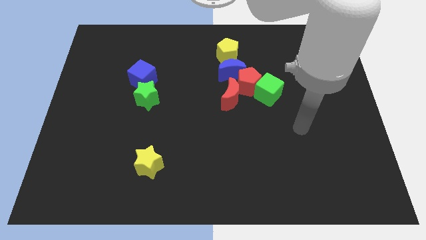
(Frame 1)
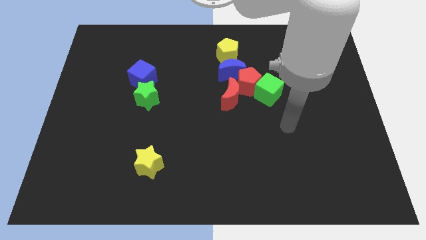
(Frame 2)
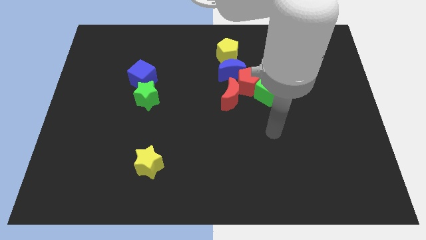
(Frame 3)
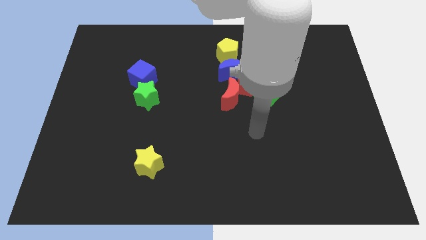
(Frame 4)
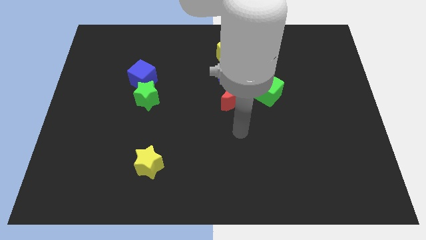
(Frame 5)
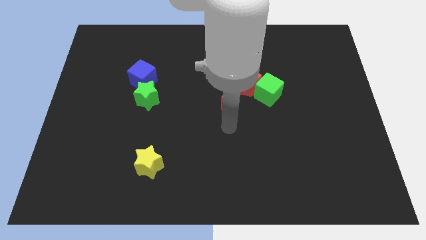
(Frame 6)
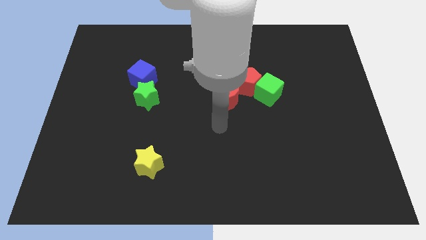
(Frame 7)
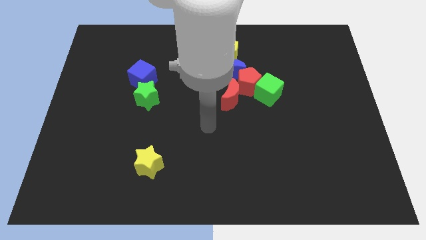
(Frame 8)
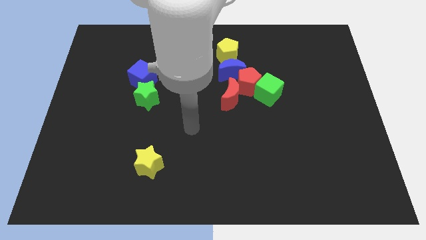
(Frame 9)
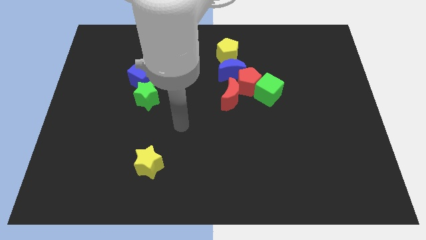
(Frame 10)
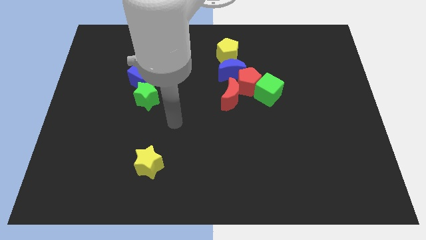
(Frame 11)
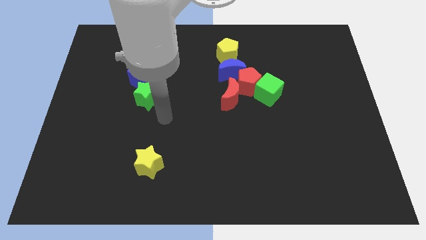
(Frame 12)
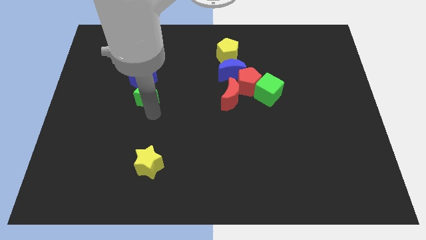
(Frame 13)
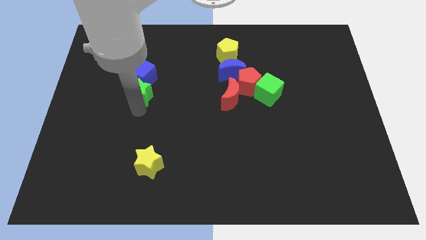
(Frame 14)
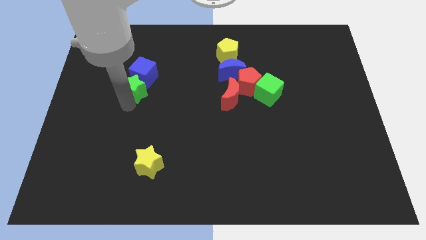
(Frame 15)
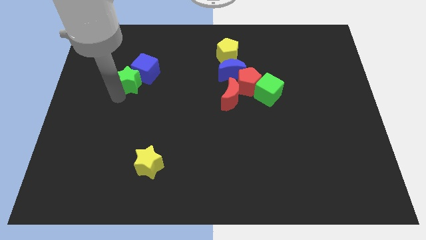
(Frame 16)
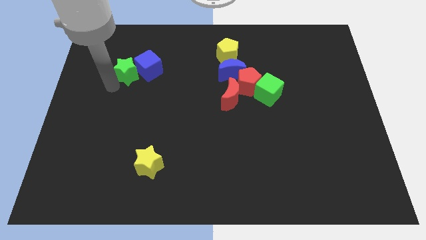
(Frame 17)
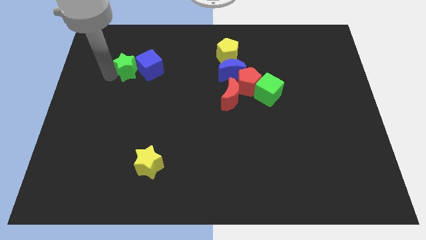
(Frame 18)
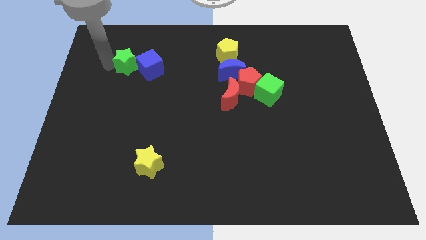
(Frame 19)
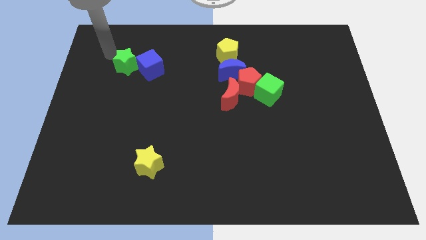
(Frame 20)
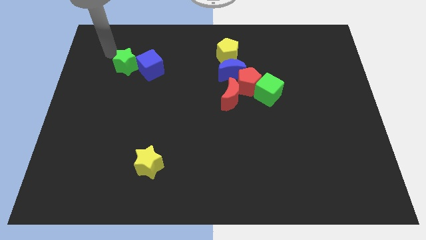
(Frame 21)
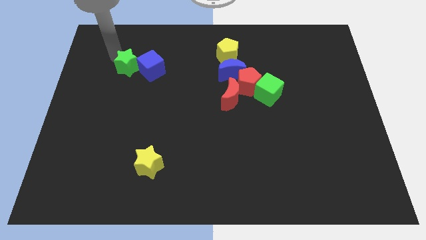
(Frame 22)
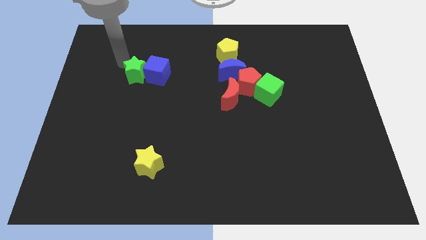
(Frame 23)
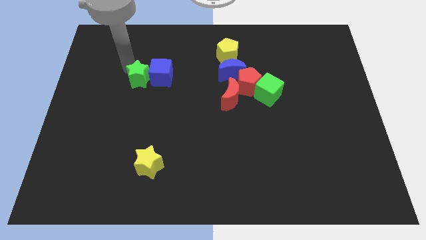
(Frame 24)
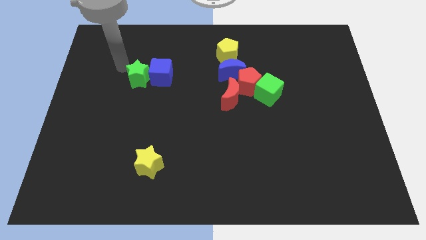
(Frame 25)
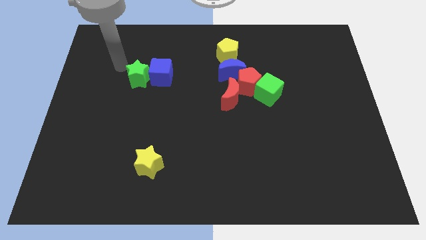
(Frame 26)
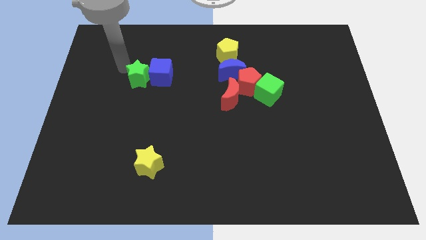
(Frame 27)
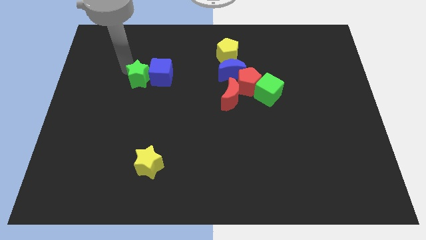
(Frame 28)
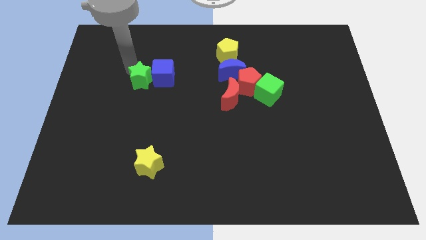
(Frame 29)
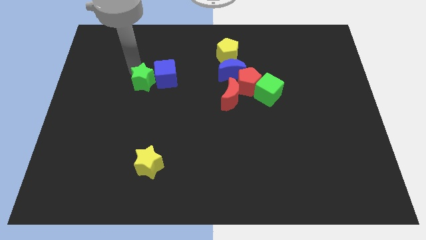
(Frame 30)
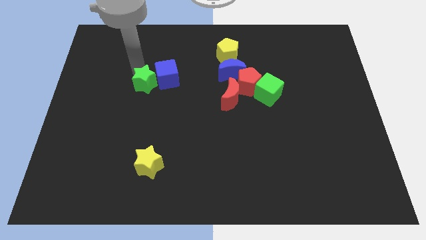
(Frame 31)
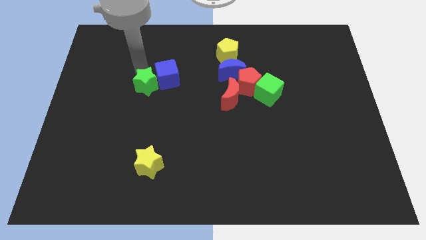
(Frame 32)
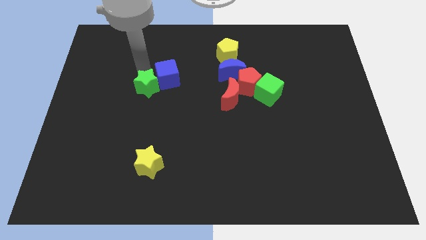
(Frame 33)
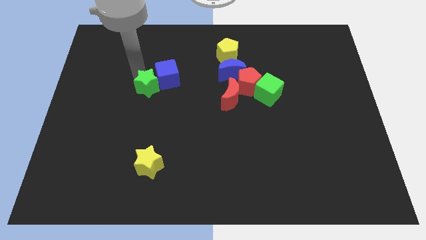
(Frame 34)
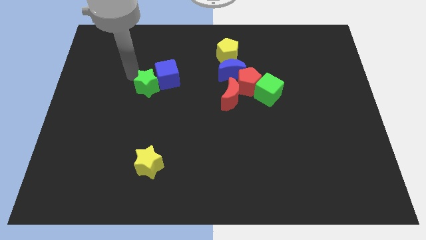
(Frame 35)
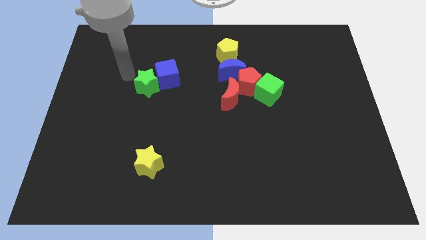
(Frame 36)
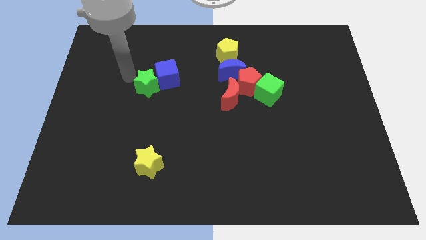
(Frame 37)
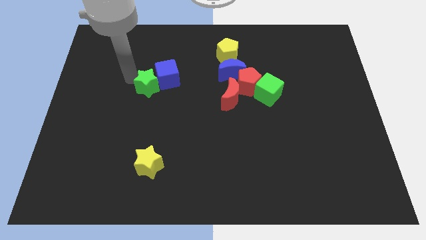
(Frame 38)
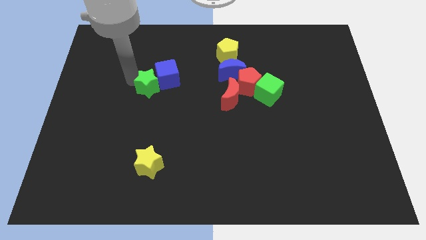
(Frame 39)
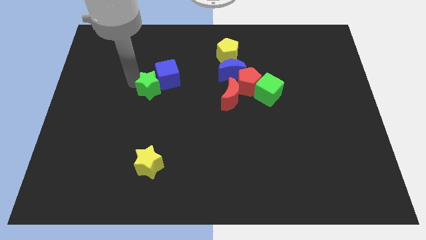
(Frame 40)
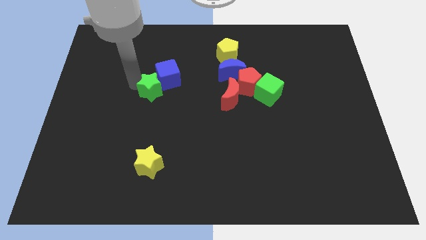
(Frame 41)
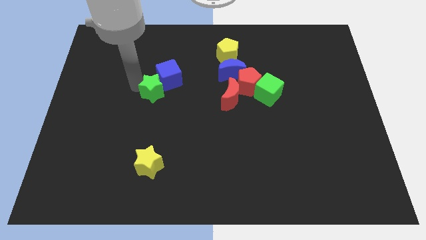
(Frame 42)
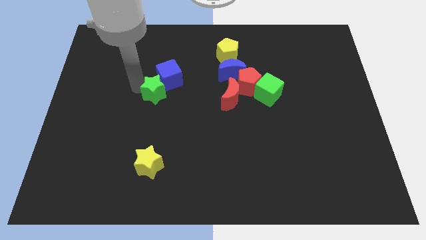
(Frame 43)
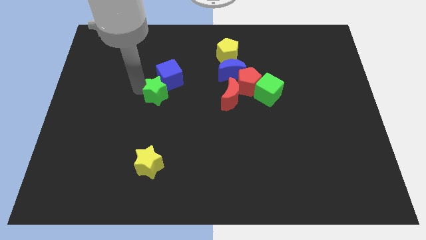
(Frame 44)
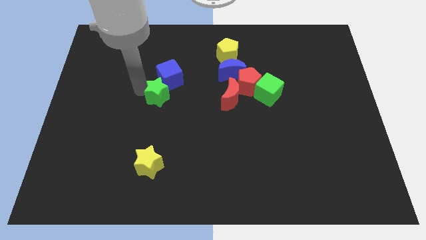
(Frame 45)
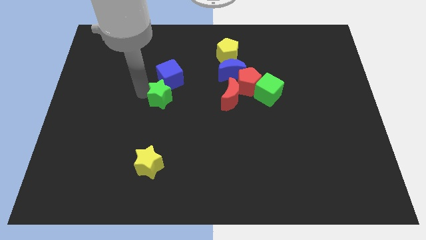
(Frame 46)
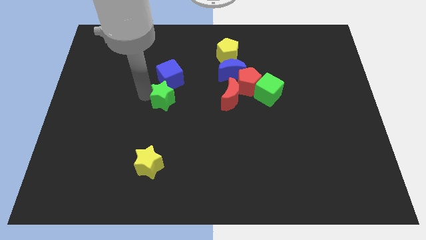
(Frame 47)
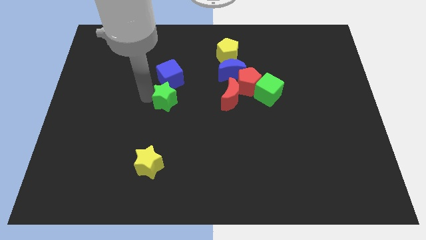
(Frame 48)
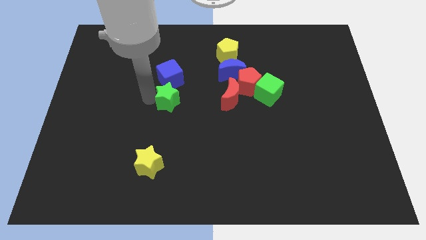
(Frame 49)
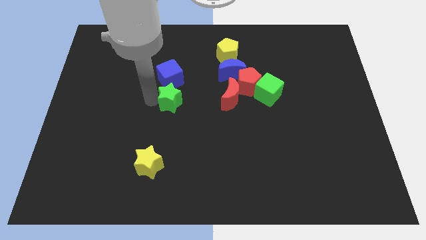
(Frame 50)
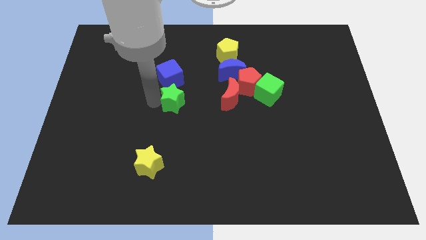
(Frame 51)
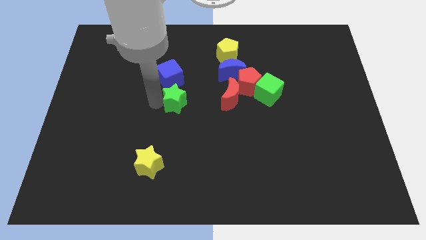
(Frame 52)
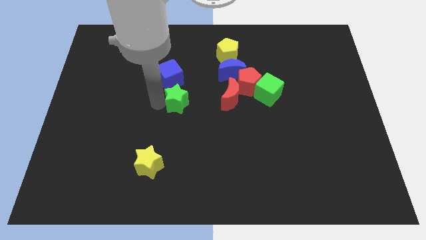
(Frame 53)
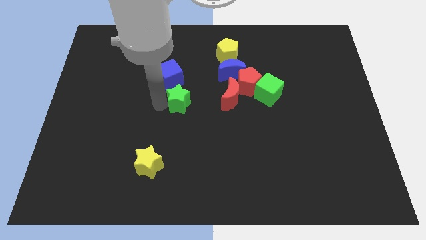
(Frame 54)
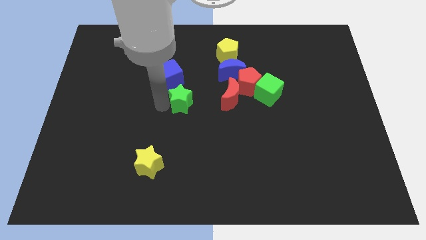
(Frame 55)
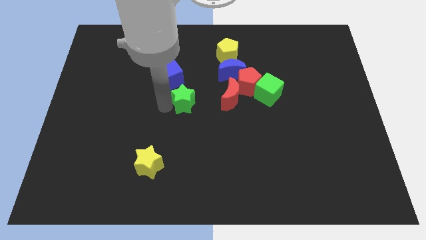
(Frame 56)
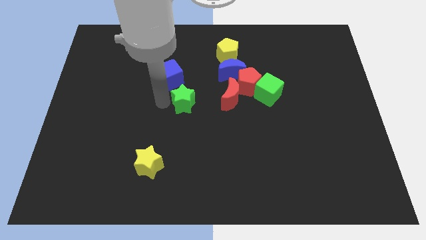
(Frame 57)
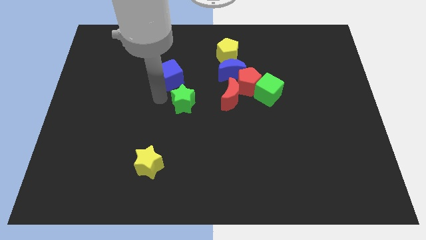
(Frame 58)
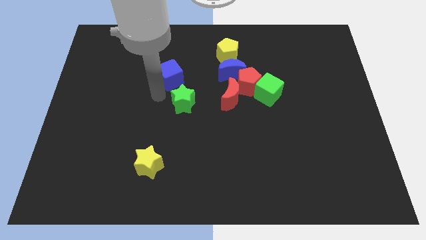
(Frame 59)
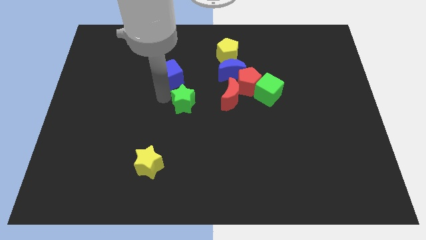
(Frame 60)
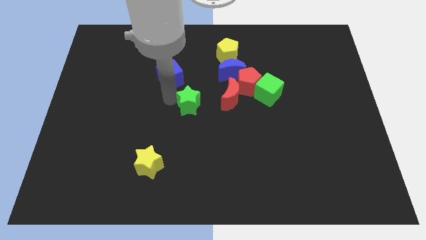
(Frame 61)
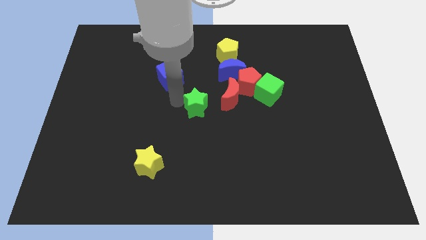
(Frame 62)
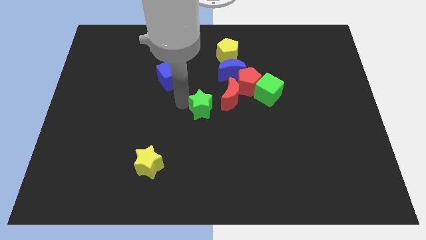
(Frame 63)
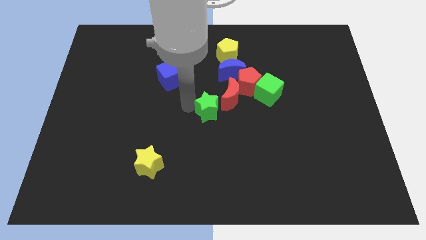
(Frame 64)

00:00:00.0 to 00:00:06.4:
push the green star to the bottom left of the red pentagon
